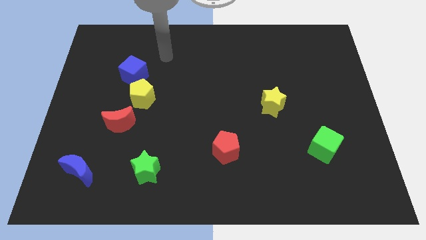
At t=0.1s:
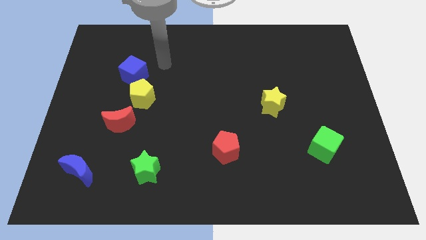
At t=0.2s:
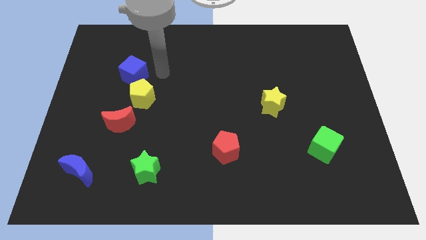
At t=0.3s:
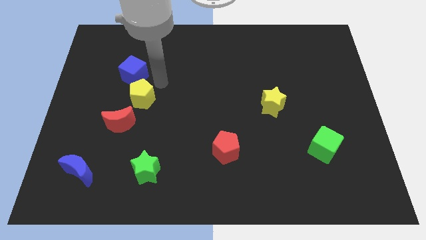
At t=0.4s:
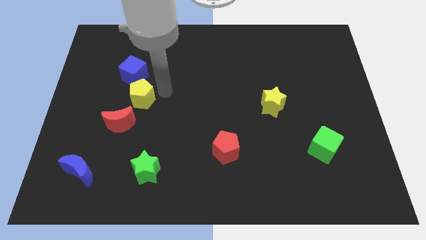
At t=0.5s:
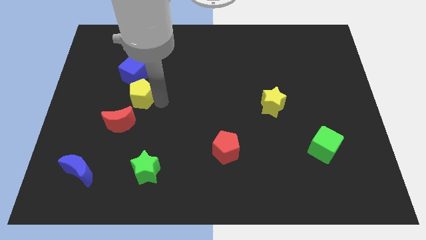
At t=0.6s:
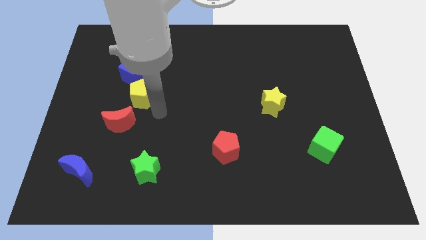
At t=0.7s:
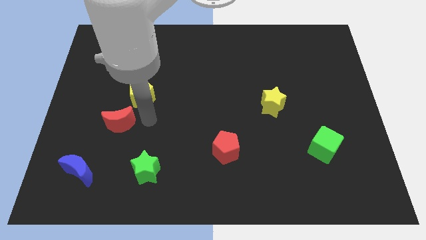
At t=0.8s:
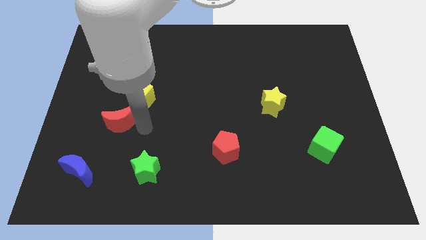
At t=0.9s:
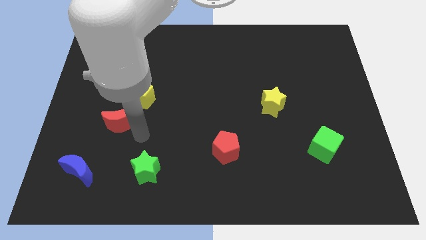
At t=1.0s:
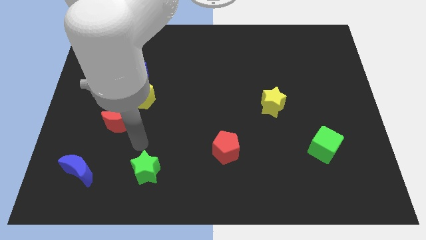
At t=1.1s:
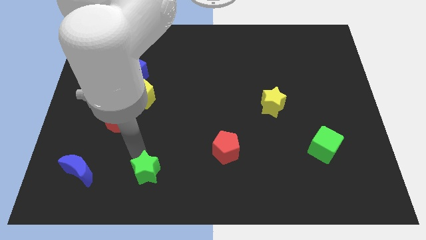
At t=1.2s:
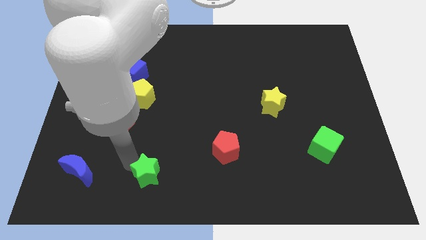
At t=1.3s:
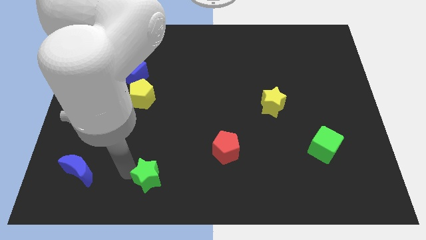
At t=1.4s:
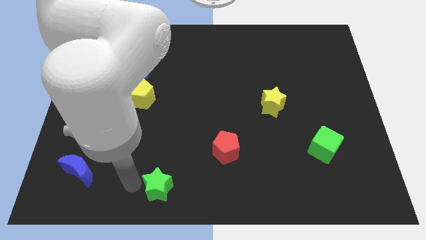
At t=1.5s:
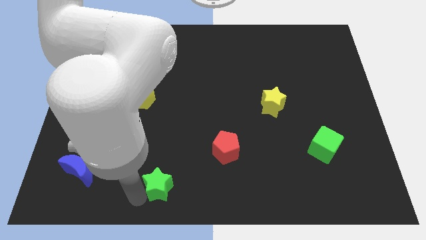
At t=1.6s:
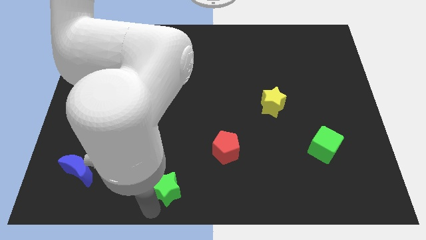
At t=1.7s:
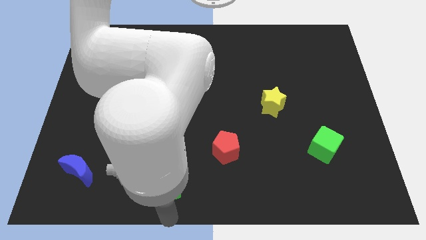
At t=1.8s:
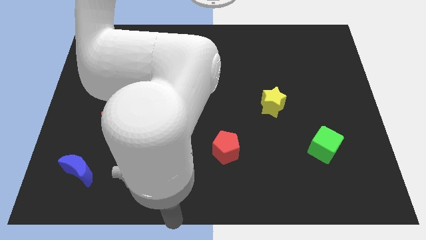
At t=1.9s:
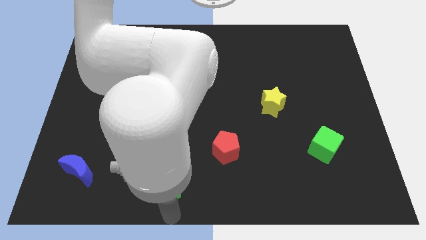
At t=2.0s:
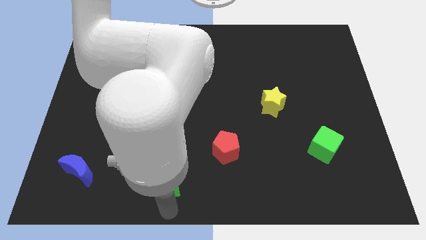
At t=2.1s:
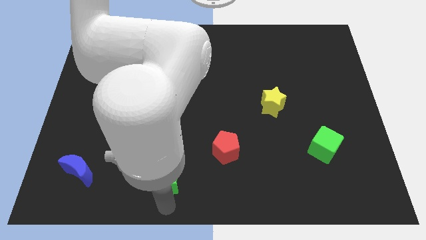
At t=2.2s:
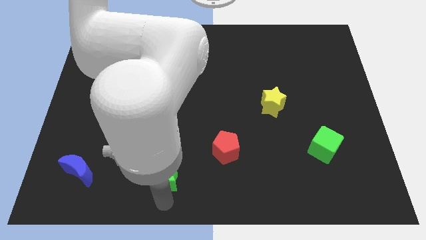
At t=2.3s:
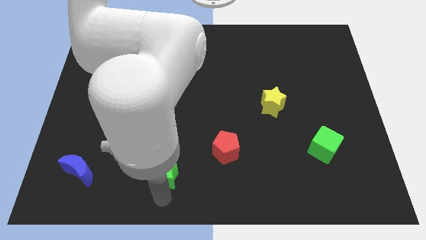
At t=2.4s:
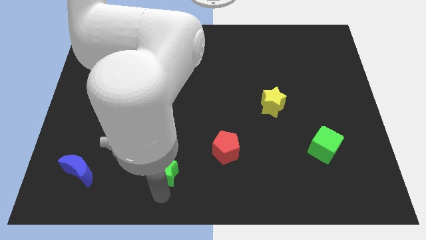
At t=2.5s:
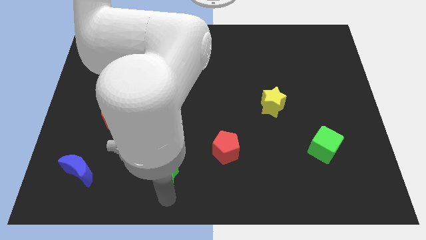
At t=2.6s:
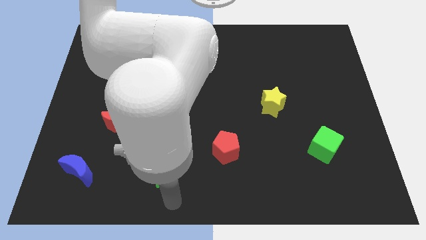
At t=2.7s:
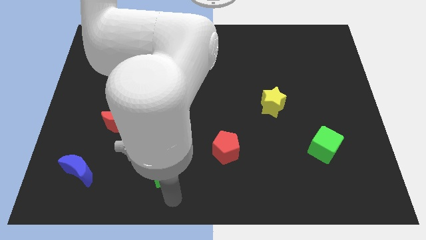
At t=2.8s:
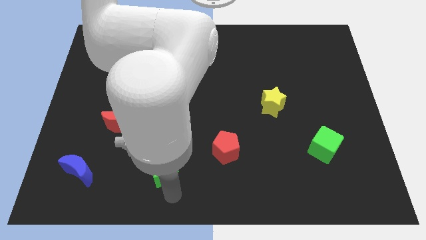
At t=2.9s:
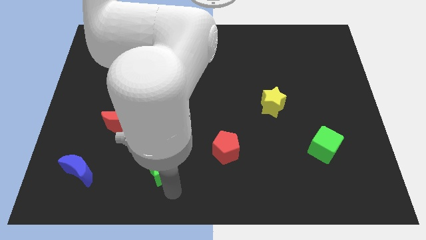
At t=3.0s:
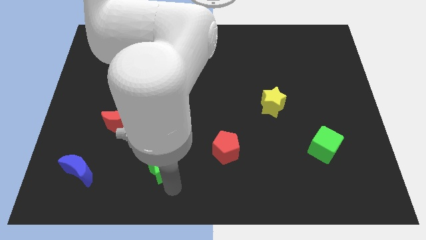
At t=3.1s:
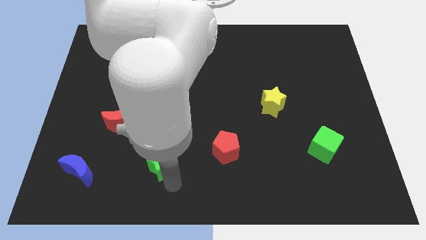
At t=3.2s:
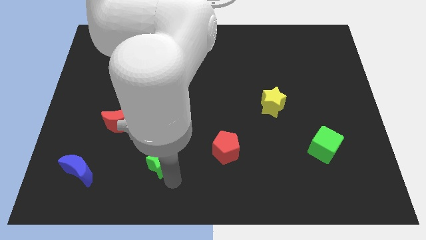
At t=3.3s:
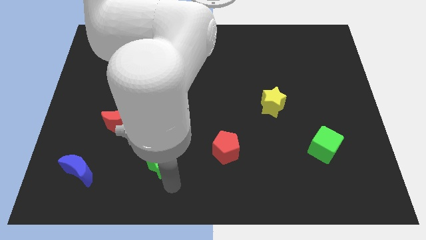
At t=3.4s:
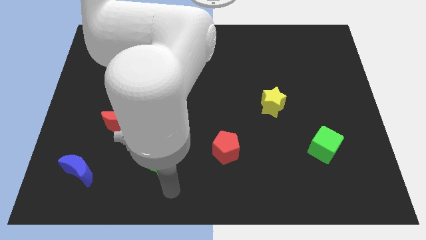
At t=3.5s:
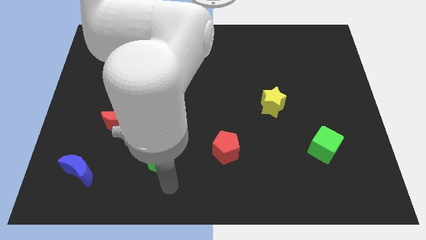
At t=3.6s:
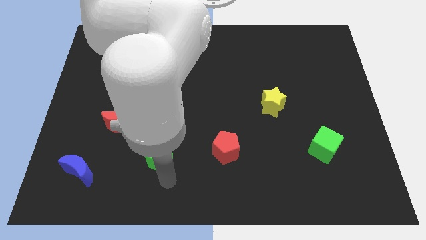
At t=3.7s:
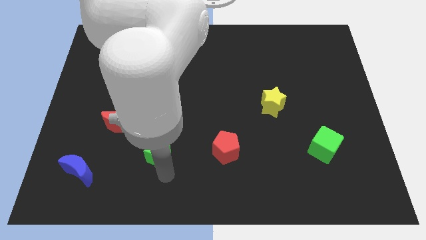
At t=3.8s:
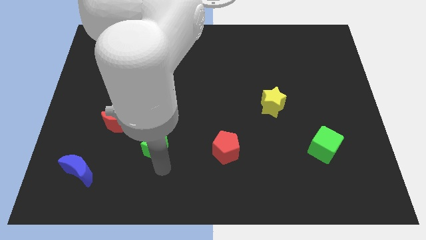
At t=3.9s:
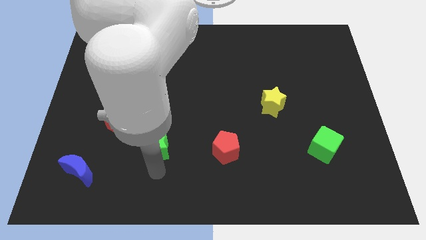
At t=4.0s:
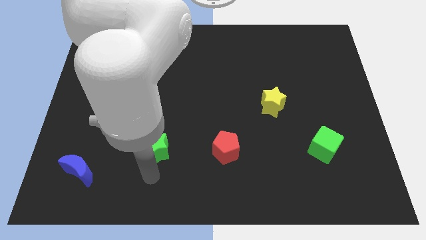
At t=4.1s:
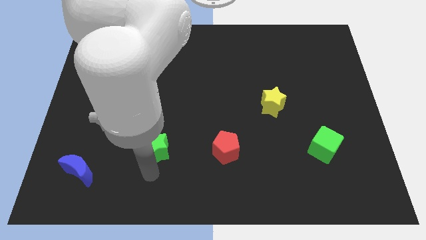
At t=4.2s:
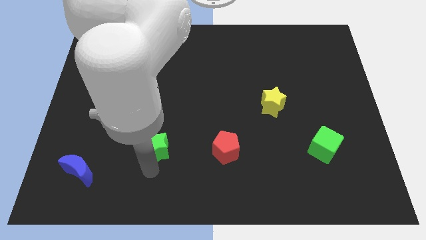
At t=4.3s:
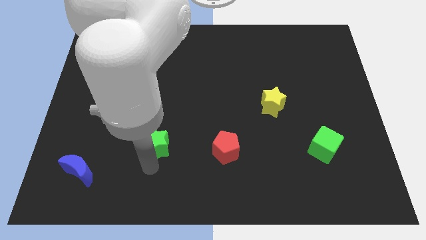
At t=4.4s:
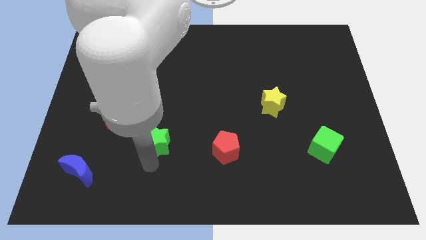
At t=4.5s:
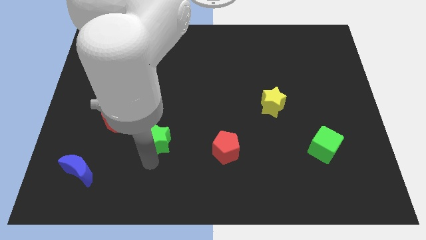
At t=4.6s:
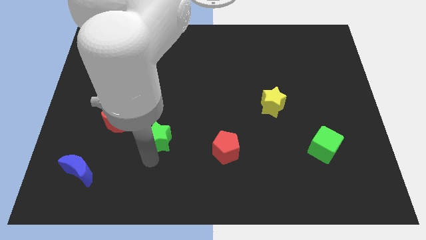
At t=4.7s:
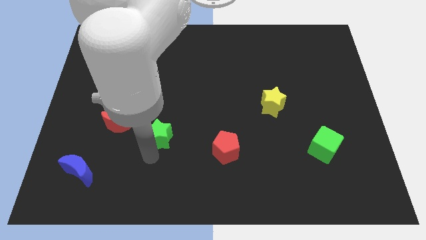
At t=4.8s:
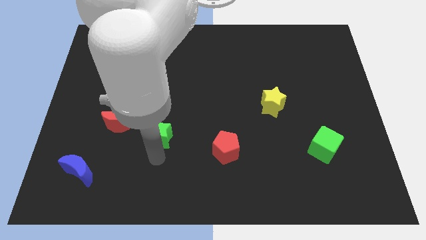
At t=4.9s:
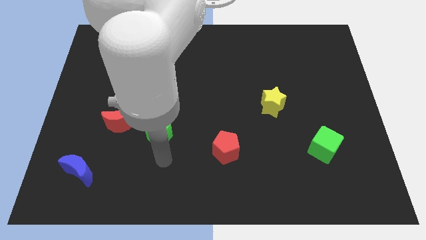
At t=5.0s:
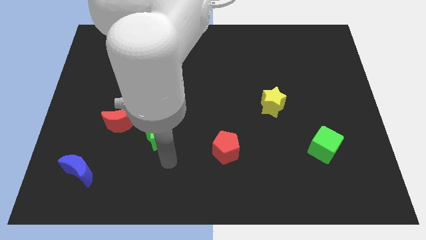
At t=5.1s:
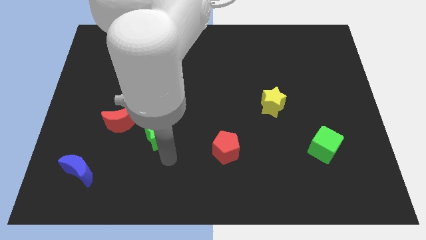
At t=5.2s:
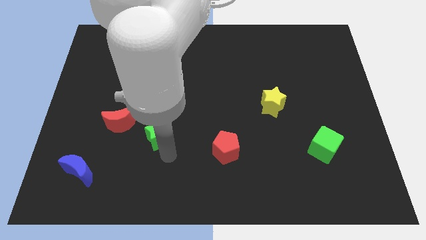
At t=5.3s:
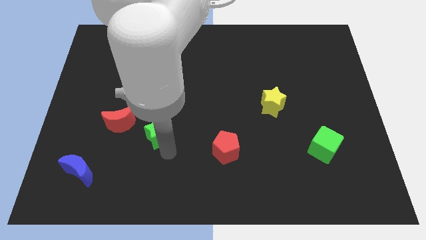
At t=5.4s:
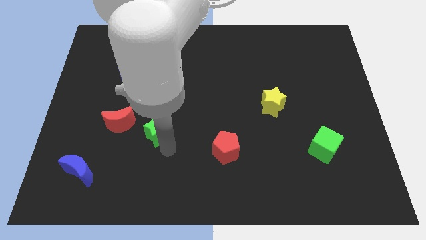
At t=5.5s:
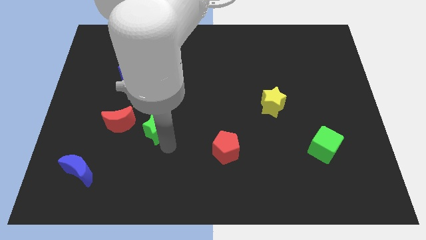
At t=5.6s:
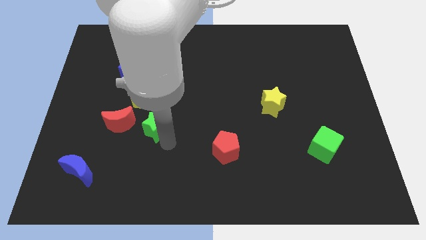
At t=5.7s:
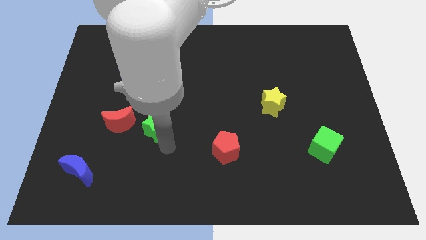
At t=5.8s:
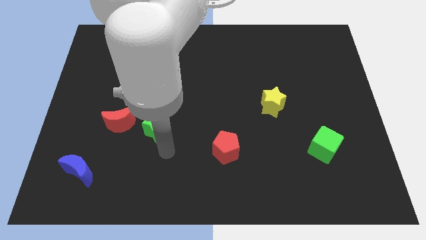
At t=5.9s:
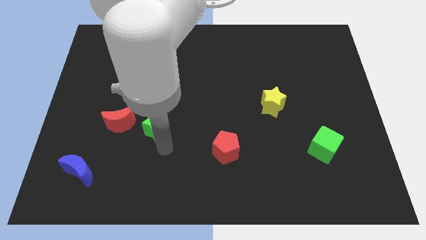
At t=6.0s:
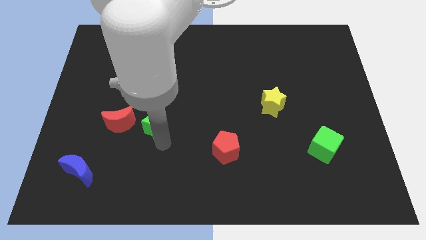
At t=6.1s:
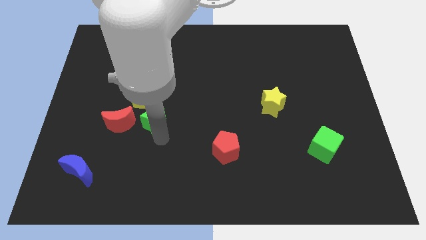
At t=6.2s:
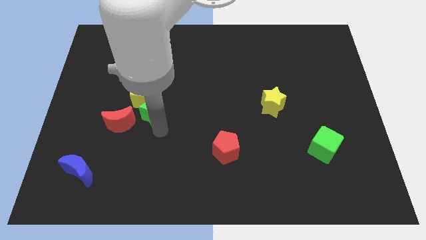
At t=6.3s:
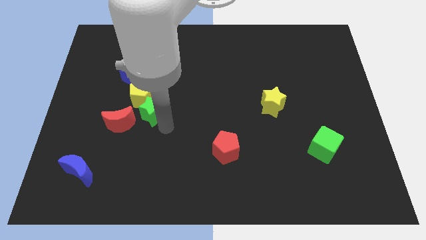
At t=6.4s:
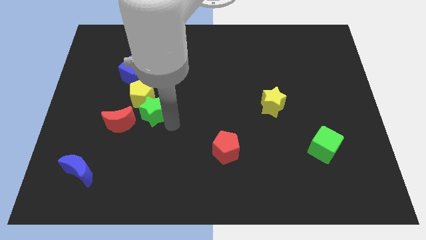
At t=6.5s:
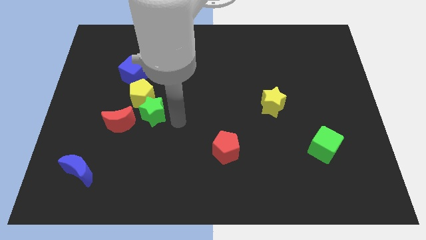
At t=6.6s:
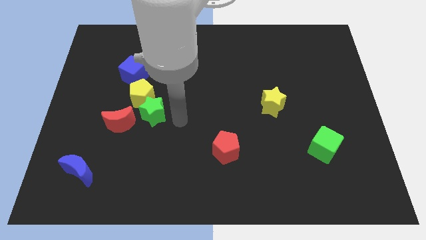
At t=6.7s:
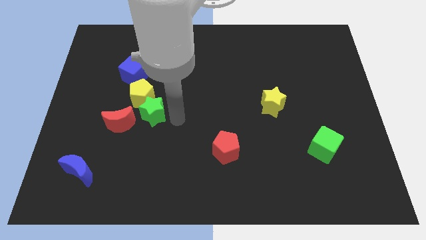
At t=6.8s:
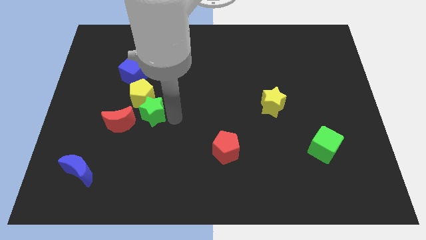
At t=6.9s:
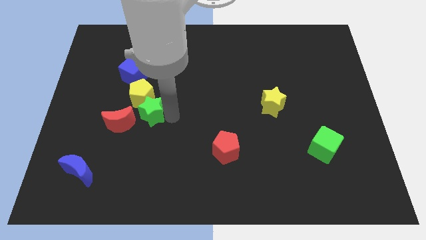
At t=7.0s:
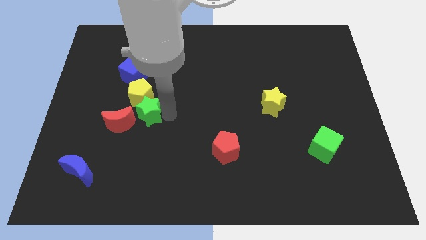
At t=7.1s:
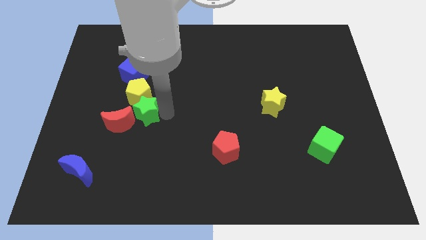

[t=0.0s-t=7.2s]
push the green star below the blue cube
